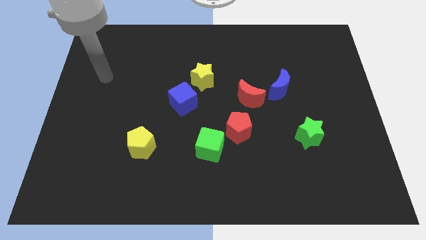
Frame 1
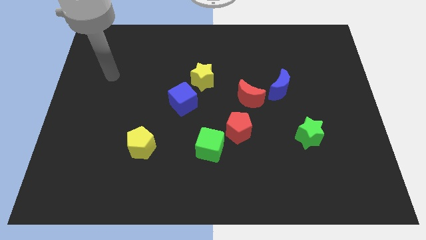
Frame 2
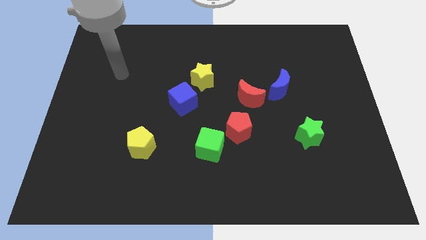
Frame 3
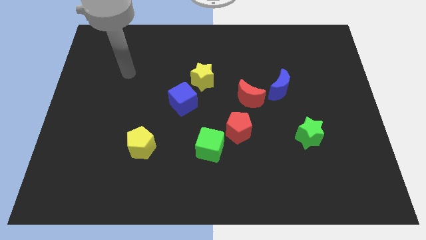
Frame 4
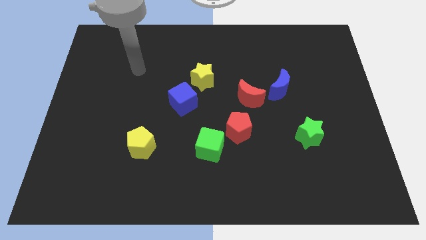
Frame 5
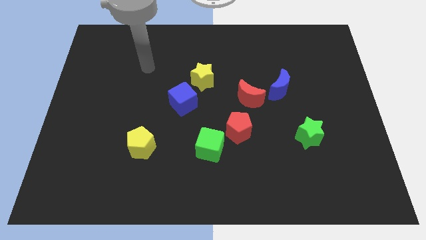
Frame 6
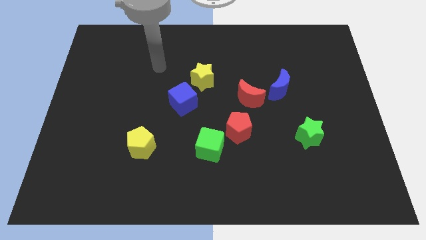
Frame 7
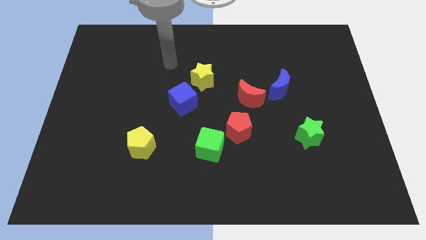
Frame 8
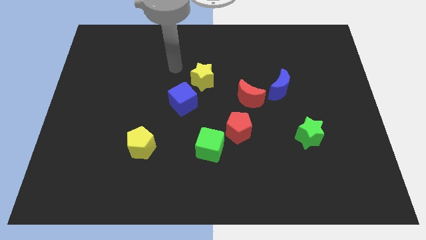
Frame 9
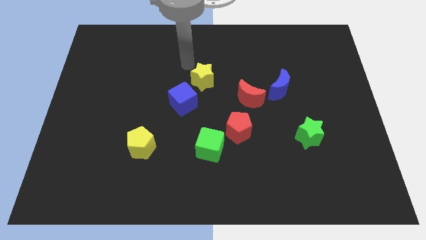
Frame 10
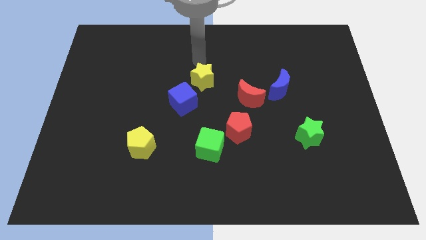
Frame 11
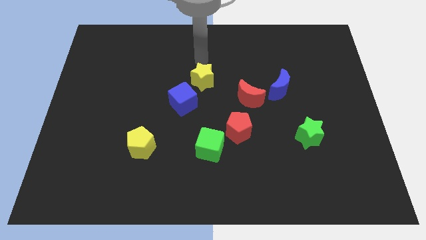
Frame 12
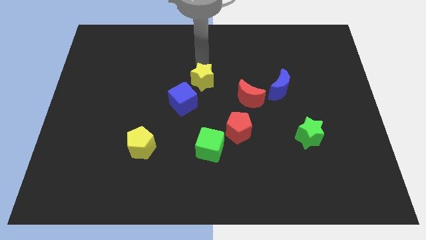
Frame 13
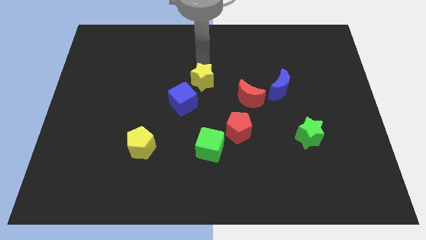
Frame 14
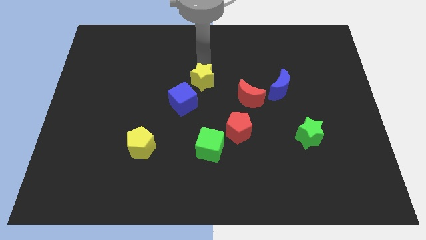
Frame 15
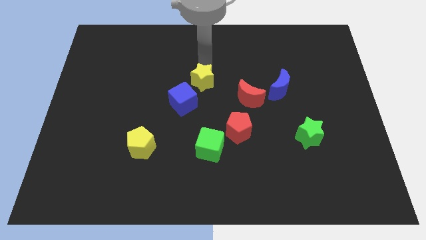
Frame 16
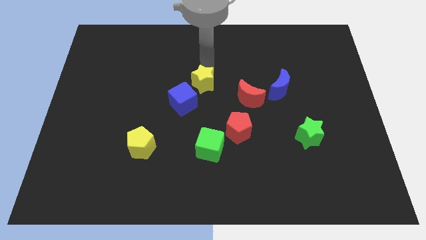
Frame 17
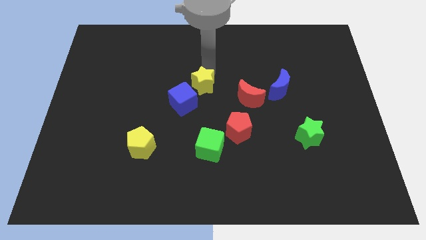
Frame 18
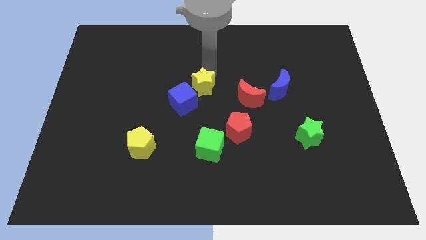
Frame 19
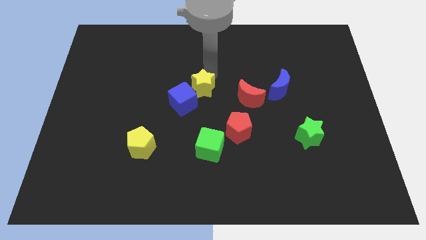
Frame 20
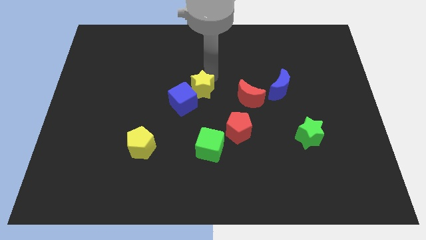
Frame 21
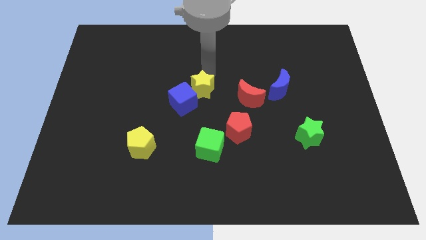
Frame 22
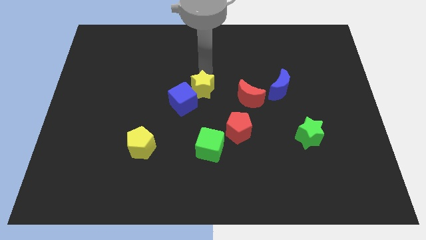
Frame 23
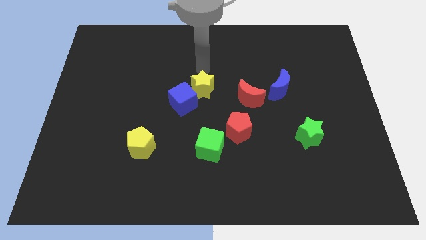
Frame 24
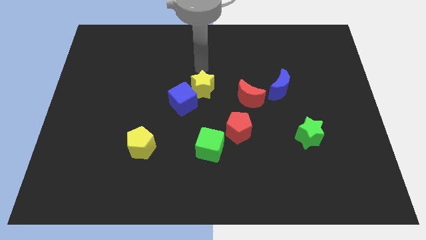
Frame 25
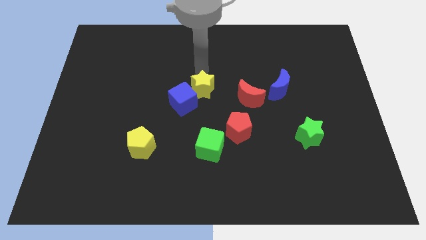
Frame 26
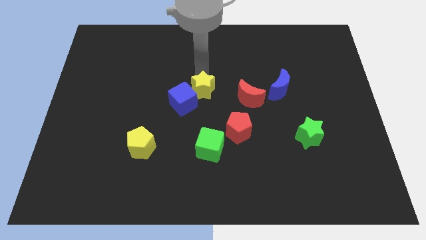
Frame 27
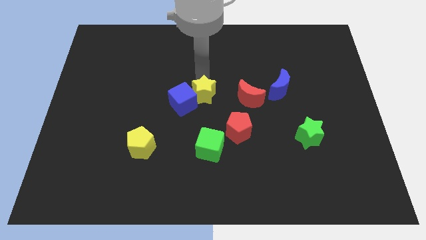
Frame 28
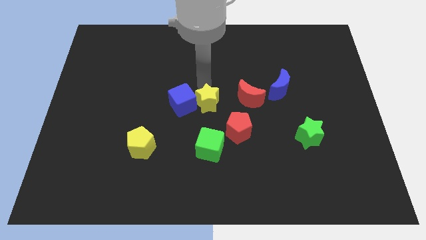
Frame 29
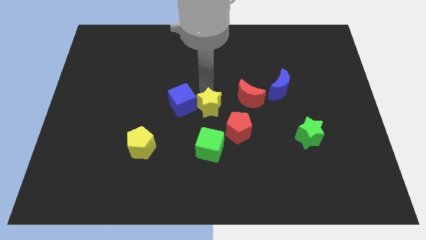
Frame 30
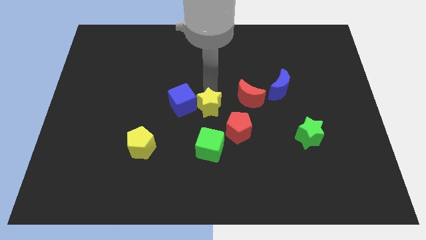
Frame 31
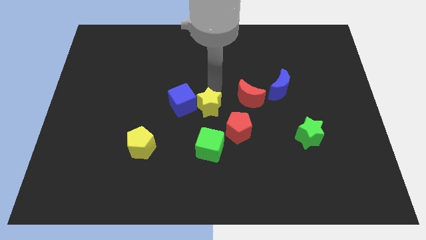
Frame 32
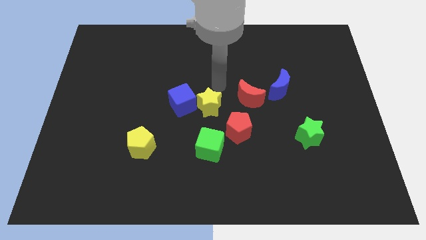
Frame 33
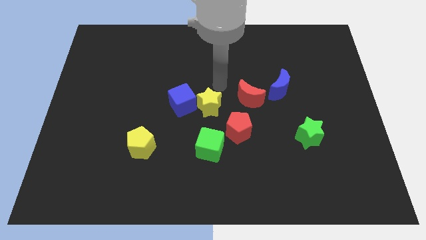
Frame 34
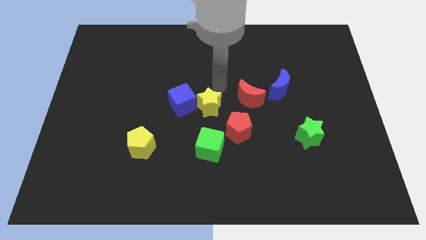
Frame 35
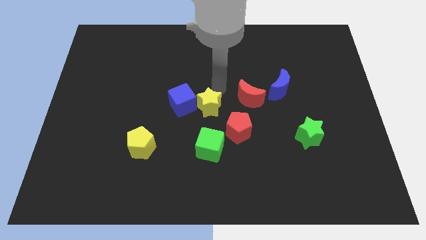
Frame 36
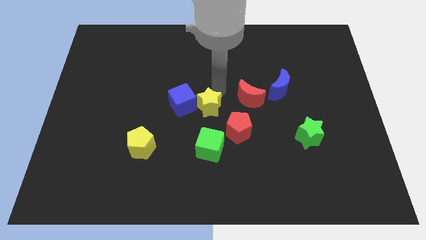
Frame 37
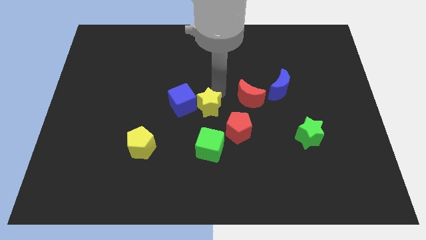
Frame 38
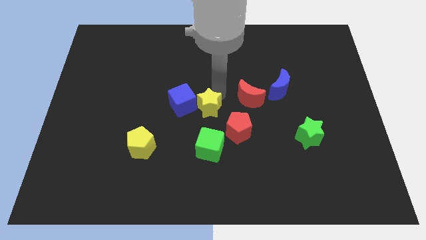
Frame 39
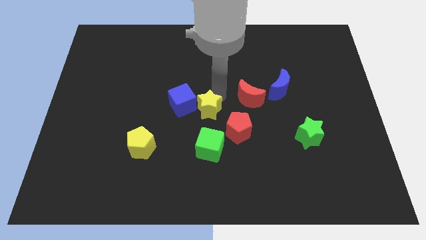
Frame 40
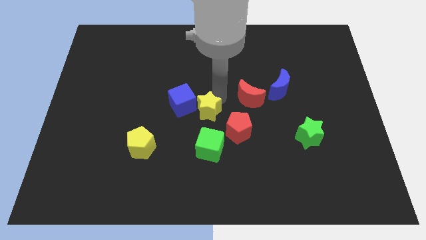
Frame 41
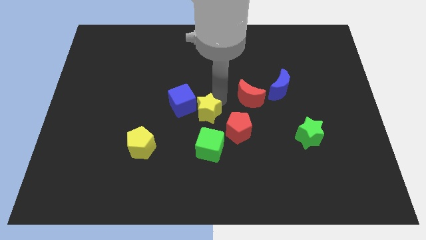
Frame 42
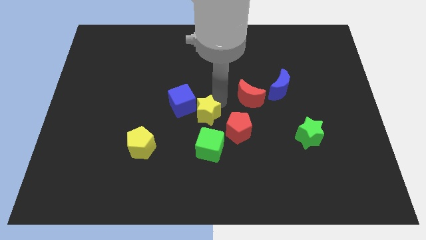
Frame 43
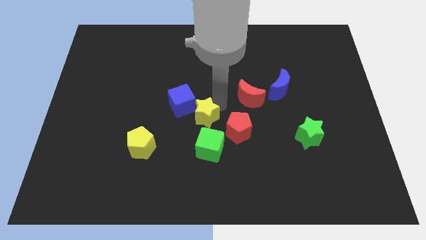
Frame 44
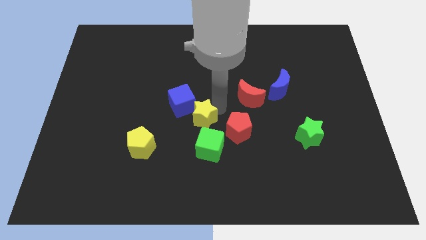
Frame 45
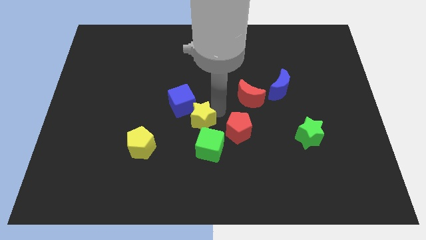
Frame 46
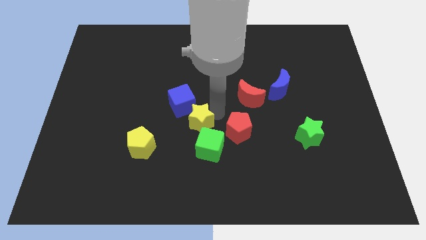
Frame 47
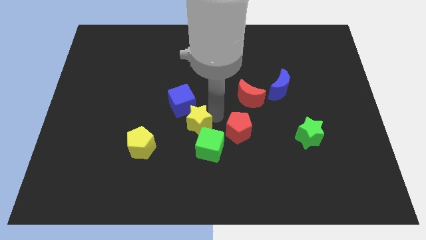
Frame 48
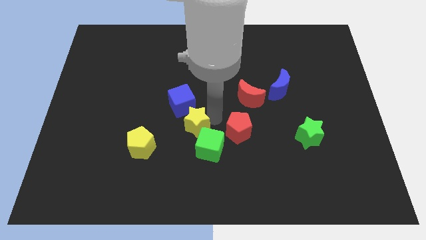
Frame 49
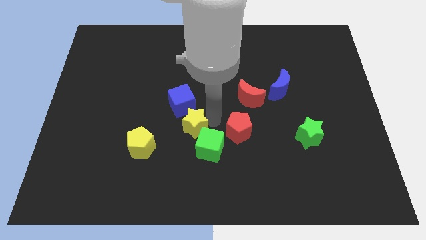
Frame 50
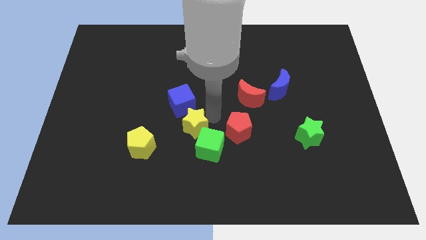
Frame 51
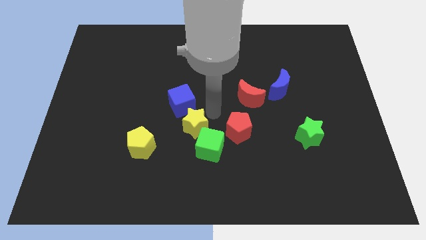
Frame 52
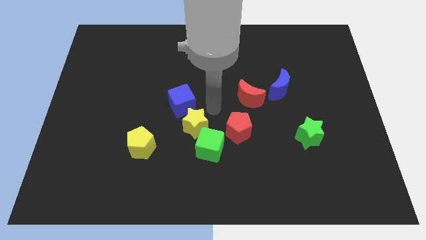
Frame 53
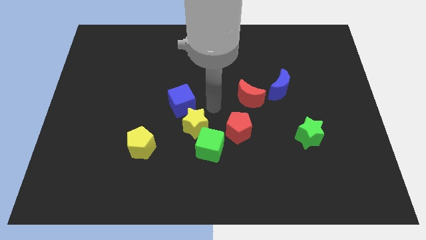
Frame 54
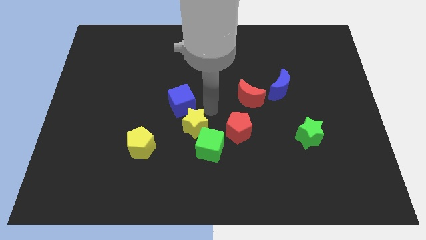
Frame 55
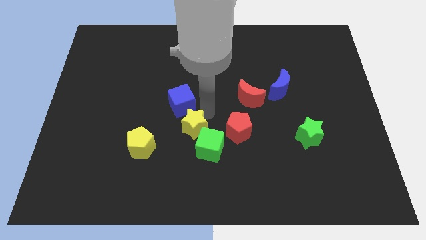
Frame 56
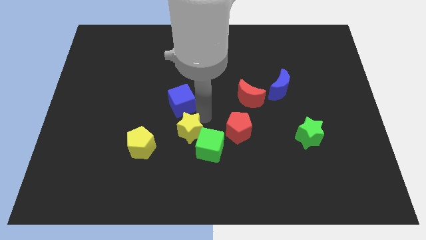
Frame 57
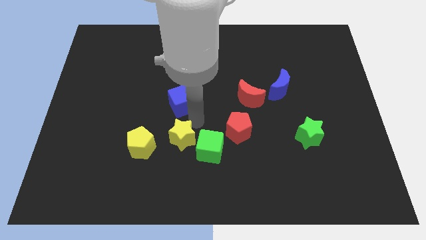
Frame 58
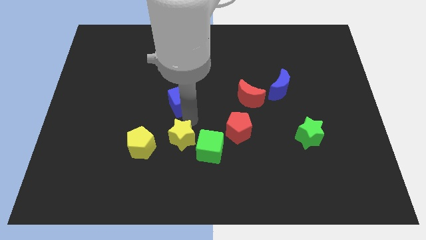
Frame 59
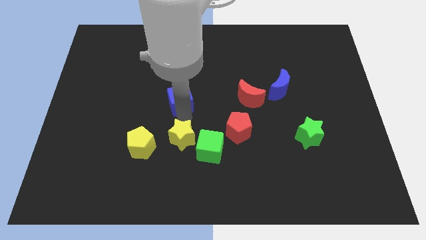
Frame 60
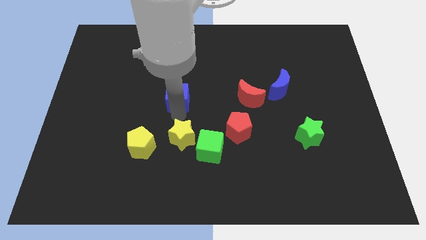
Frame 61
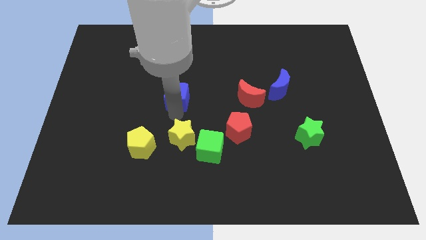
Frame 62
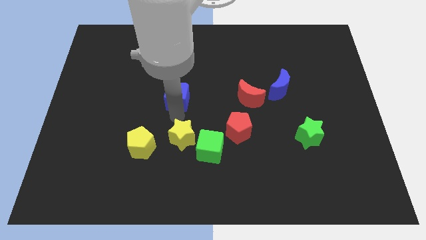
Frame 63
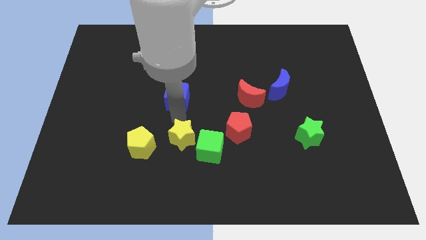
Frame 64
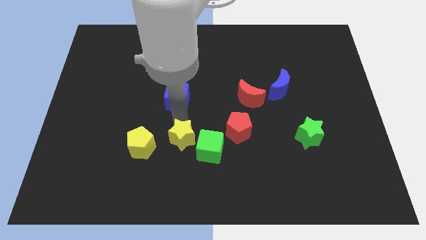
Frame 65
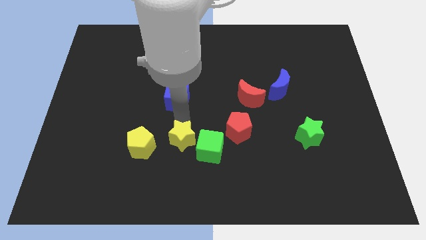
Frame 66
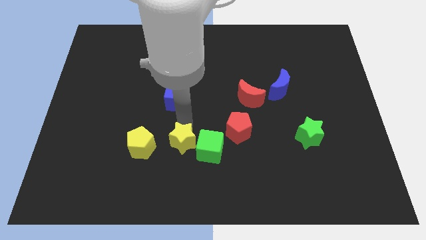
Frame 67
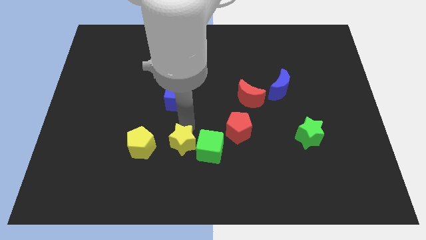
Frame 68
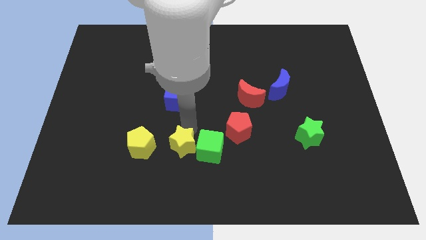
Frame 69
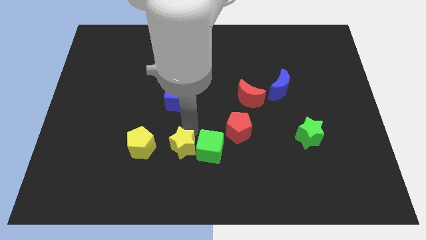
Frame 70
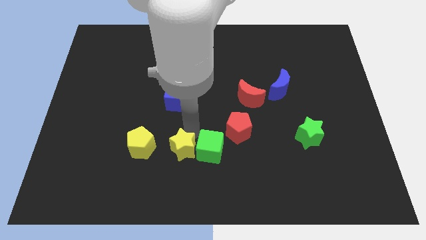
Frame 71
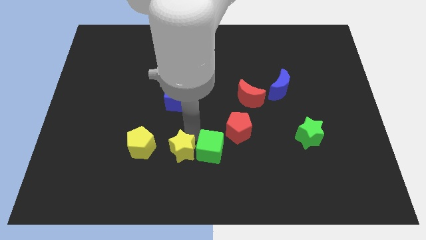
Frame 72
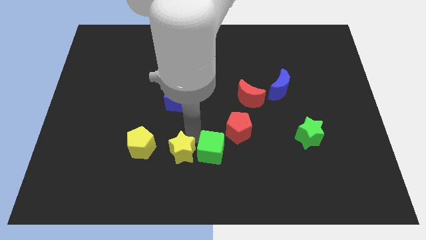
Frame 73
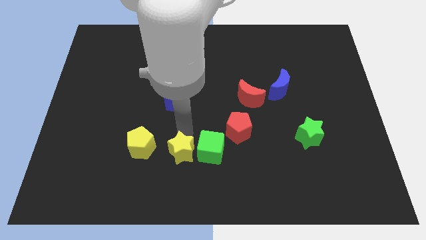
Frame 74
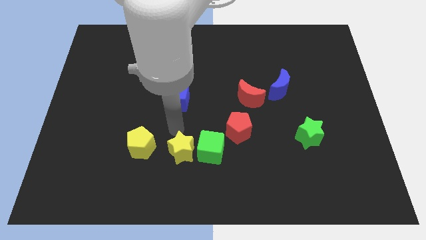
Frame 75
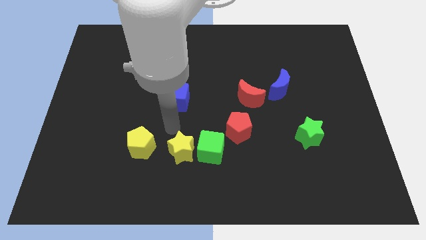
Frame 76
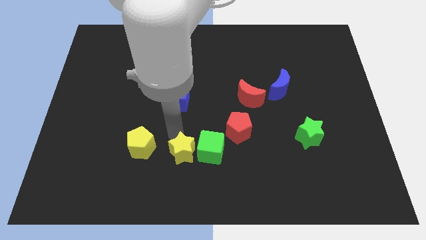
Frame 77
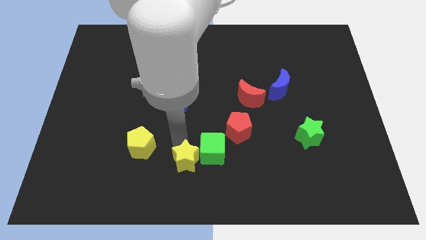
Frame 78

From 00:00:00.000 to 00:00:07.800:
put the yellow star to the bottom
